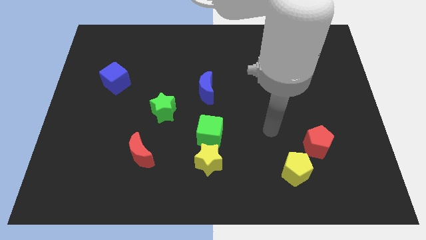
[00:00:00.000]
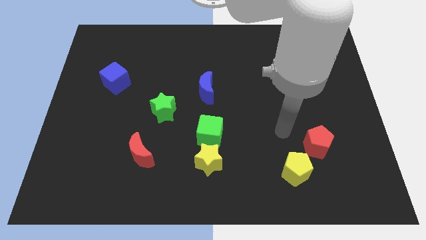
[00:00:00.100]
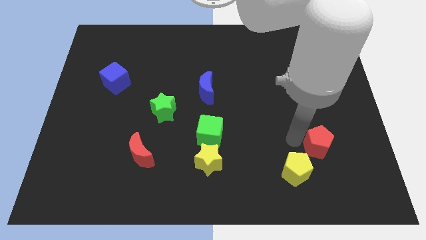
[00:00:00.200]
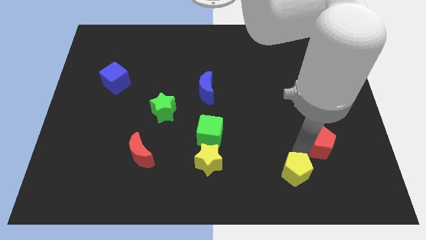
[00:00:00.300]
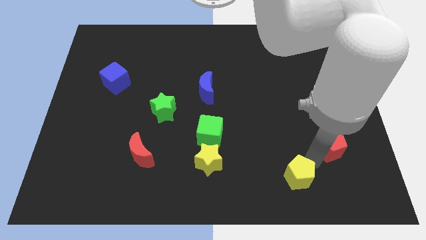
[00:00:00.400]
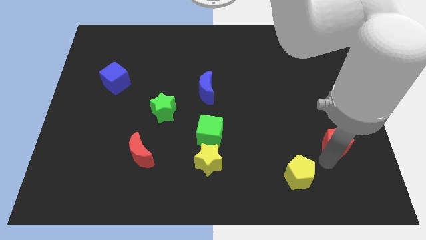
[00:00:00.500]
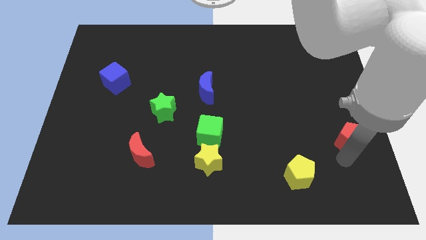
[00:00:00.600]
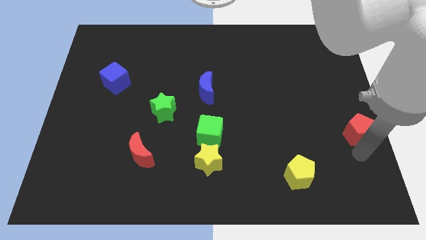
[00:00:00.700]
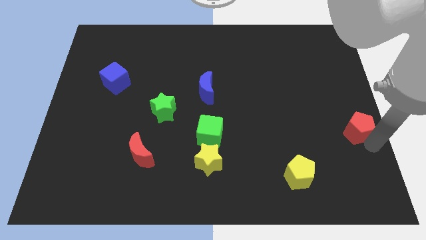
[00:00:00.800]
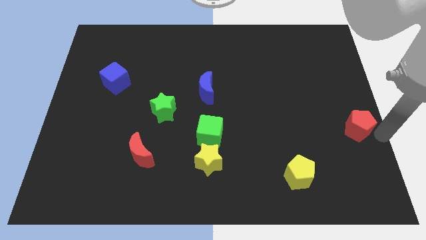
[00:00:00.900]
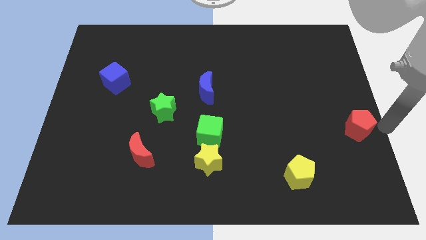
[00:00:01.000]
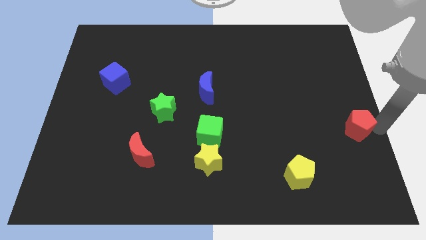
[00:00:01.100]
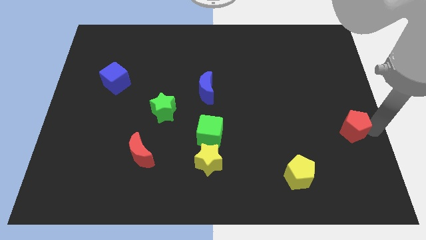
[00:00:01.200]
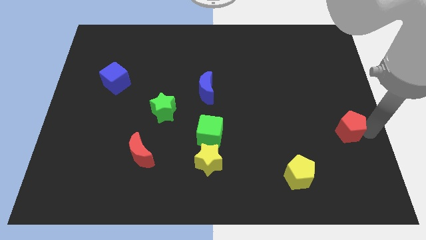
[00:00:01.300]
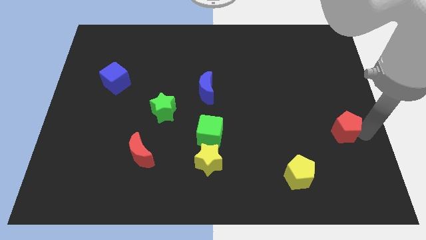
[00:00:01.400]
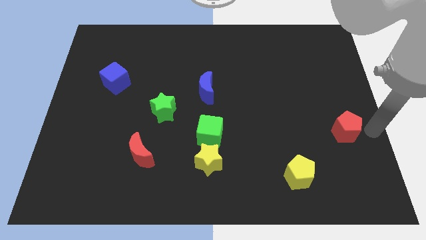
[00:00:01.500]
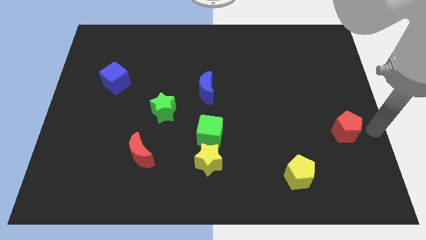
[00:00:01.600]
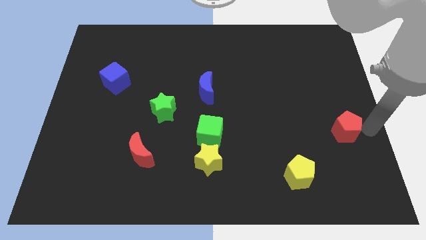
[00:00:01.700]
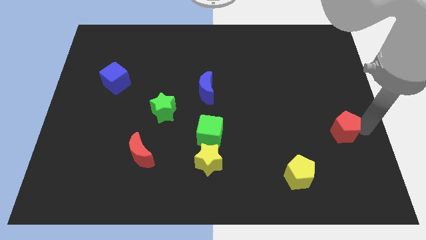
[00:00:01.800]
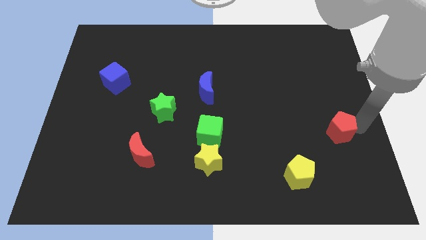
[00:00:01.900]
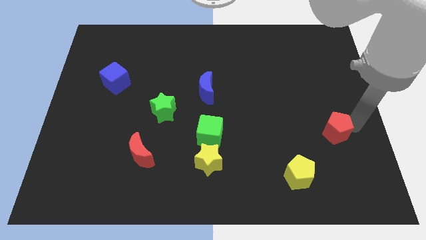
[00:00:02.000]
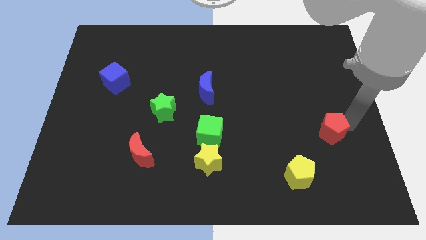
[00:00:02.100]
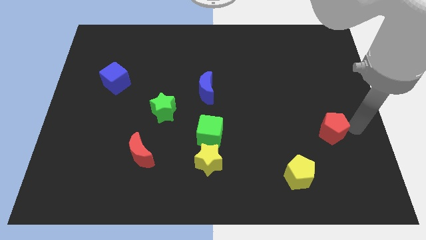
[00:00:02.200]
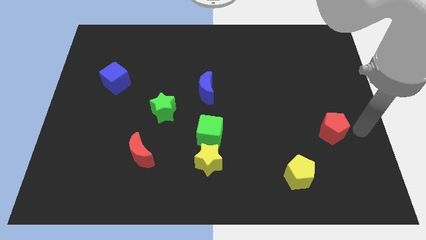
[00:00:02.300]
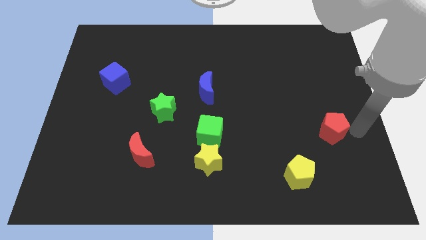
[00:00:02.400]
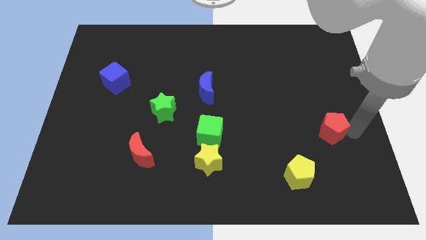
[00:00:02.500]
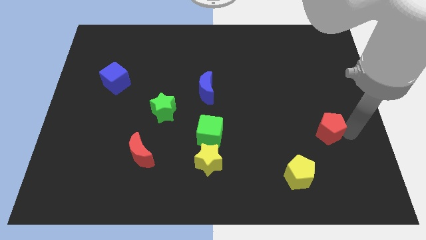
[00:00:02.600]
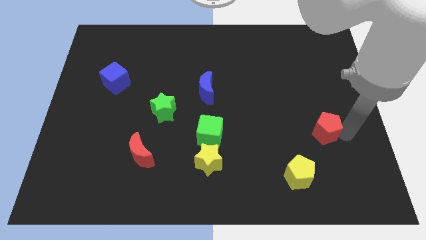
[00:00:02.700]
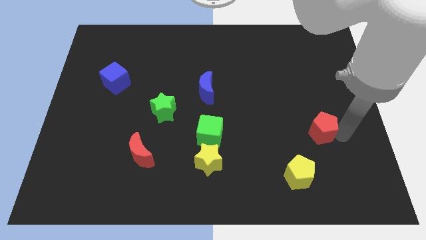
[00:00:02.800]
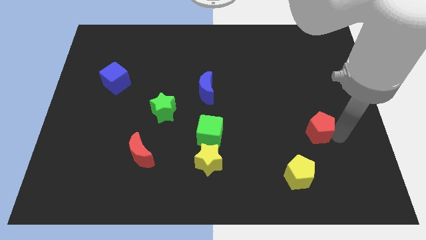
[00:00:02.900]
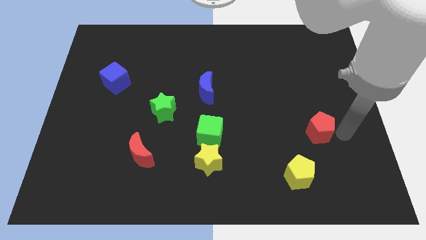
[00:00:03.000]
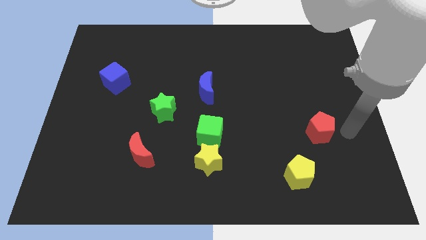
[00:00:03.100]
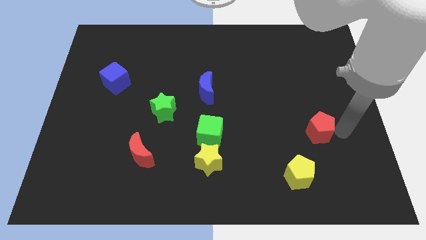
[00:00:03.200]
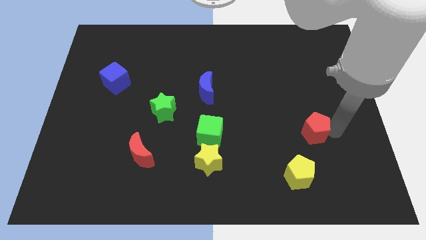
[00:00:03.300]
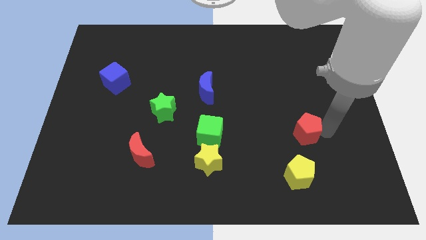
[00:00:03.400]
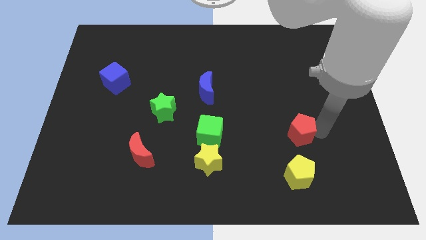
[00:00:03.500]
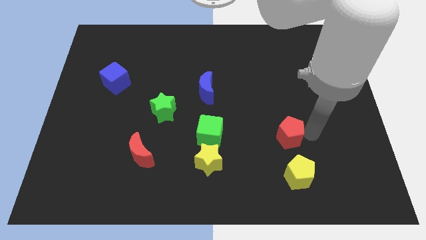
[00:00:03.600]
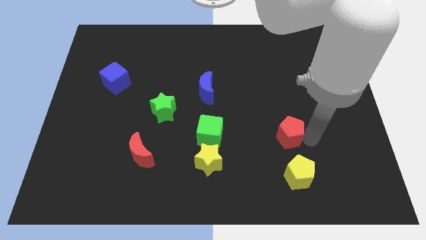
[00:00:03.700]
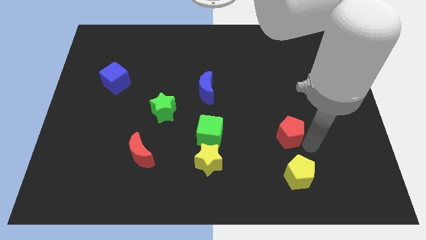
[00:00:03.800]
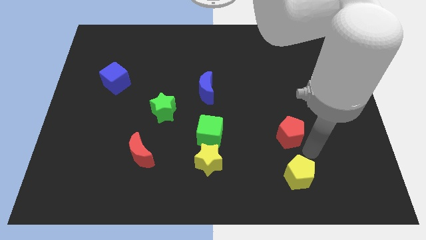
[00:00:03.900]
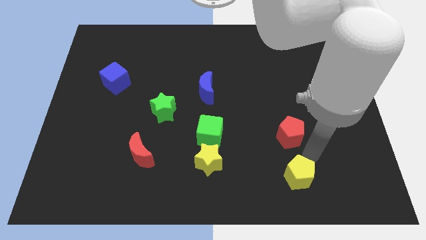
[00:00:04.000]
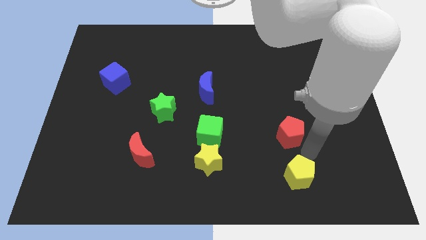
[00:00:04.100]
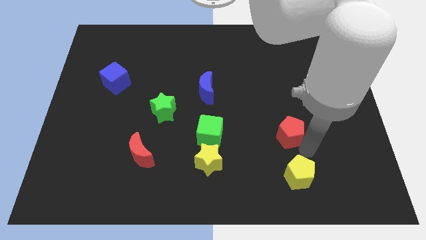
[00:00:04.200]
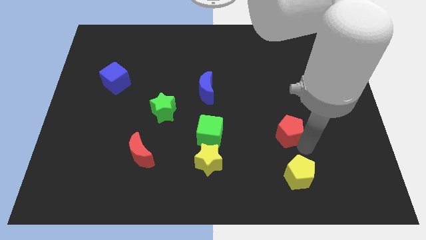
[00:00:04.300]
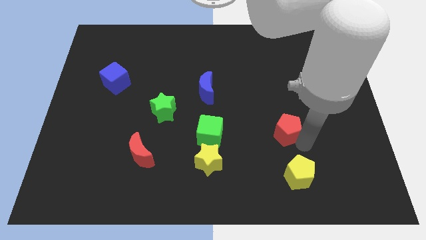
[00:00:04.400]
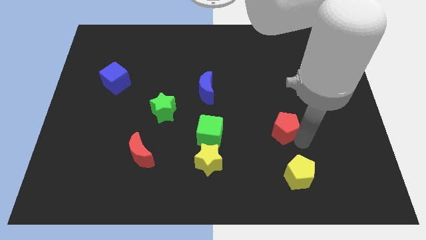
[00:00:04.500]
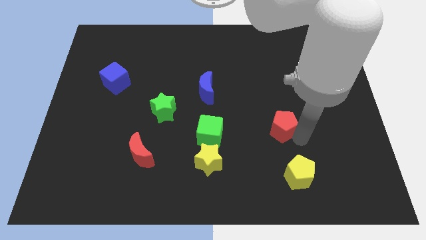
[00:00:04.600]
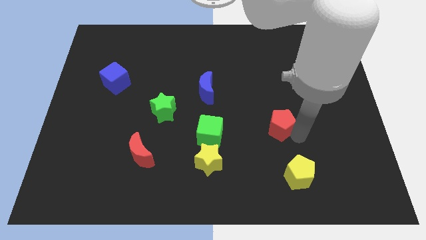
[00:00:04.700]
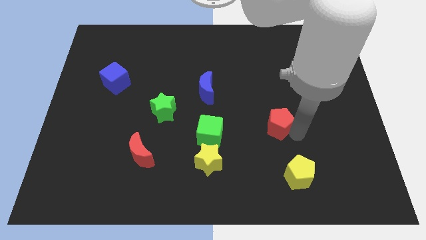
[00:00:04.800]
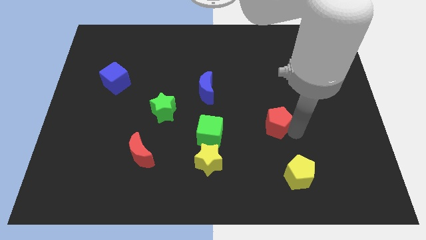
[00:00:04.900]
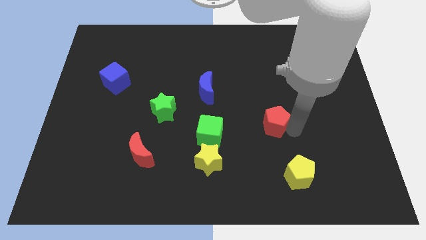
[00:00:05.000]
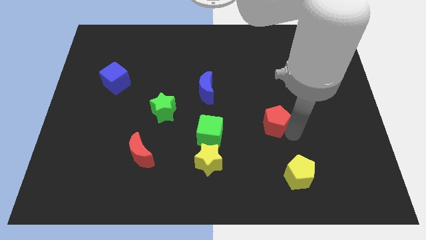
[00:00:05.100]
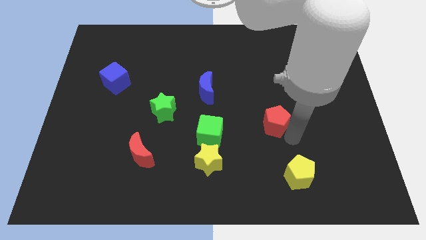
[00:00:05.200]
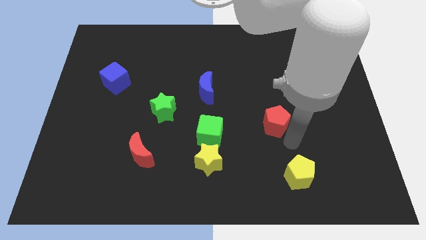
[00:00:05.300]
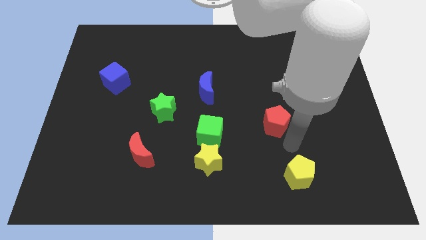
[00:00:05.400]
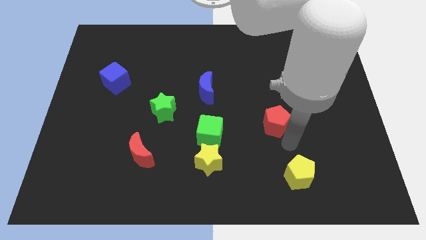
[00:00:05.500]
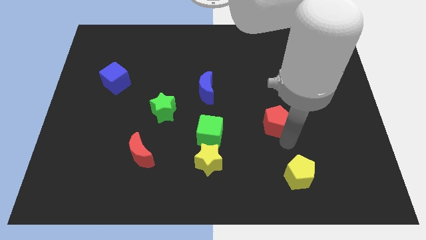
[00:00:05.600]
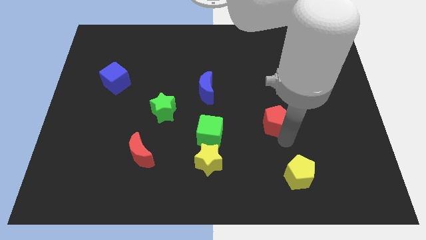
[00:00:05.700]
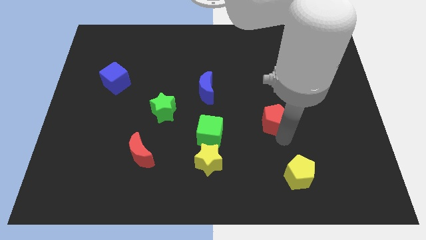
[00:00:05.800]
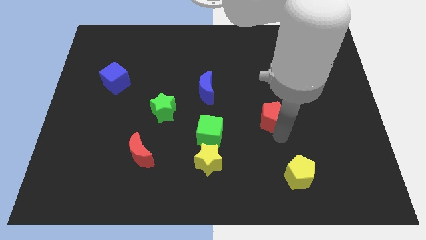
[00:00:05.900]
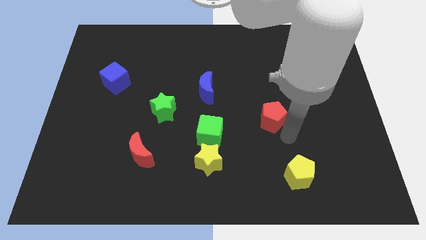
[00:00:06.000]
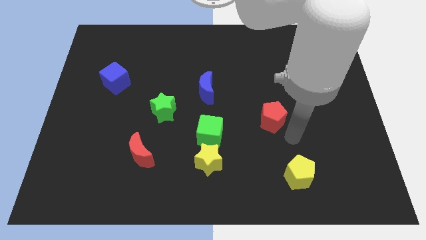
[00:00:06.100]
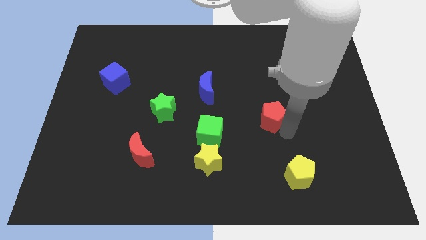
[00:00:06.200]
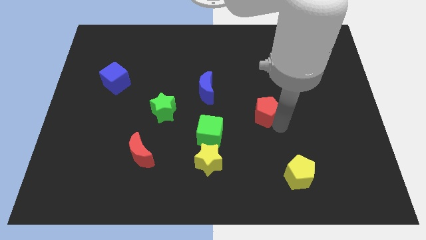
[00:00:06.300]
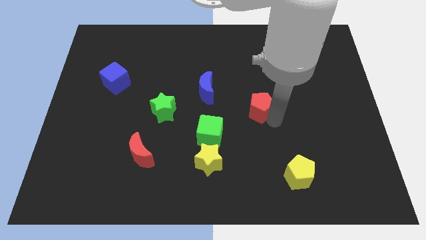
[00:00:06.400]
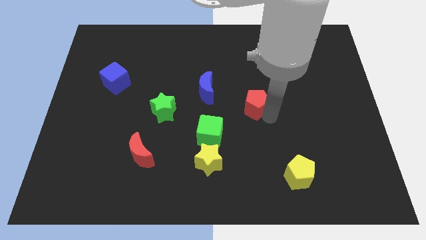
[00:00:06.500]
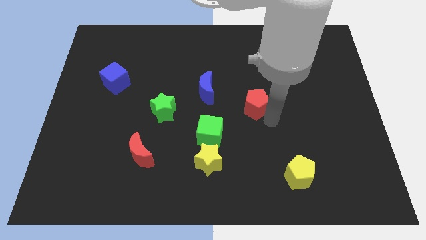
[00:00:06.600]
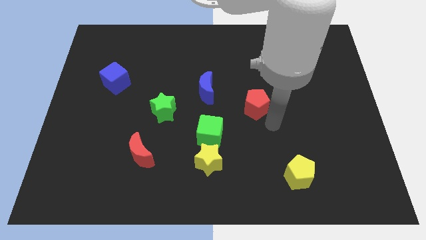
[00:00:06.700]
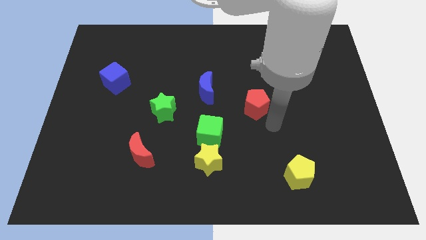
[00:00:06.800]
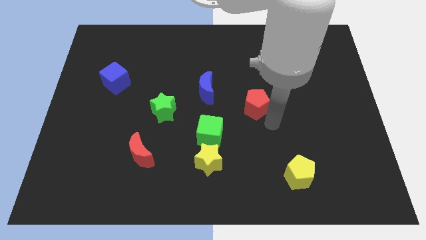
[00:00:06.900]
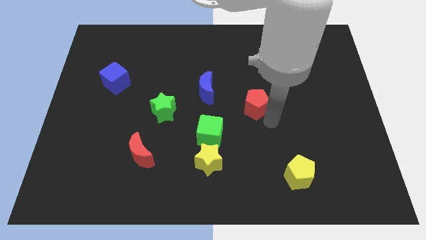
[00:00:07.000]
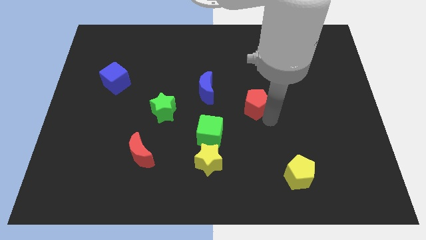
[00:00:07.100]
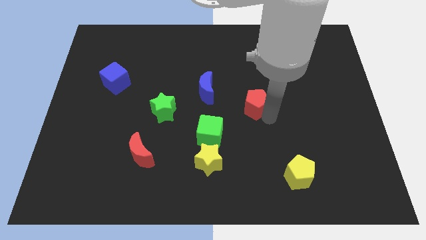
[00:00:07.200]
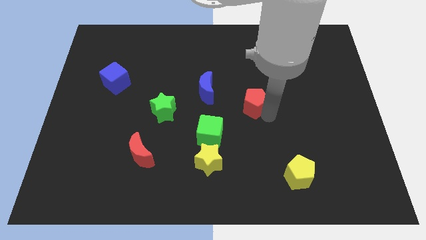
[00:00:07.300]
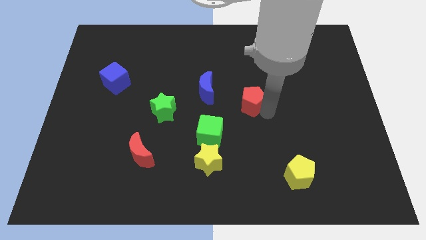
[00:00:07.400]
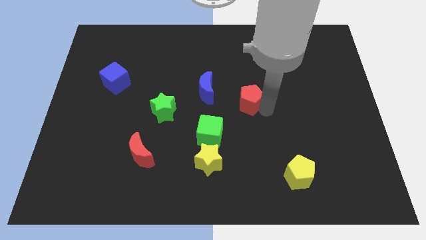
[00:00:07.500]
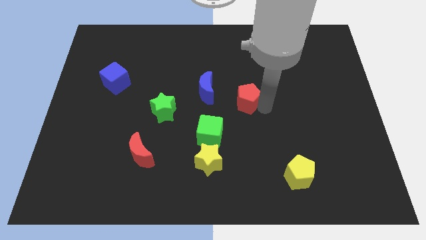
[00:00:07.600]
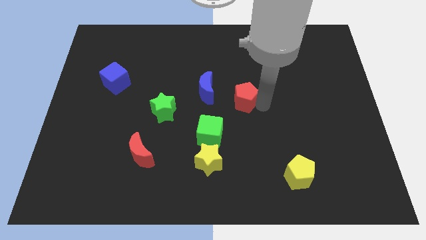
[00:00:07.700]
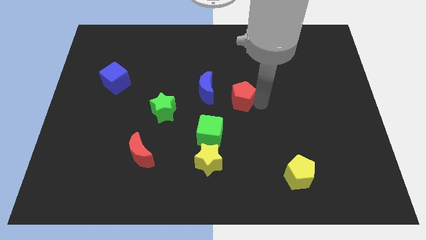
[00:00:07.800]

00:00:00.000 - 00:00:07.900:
move the red pentagon up and then to the left

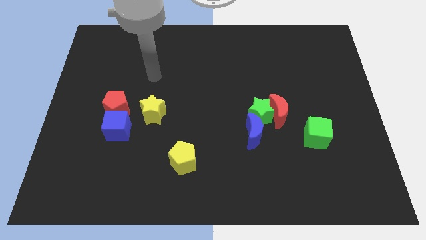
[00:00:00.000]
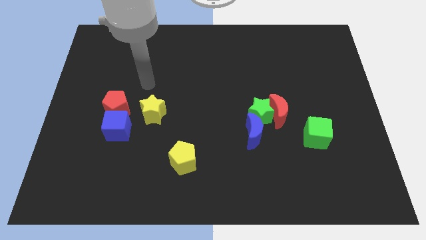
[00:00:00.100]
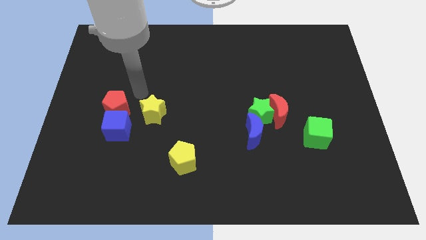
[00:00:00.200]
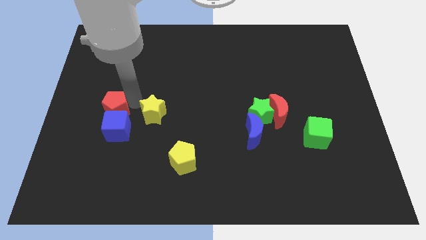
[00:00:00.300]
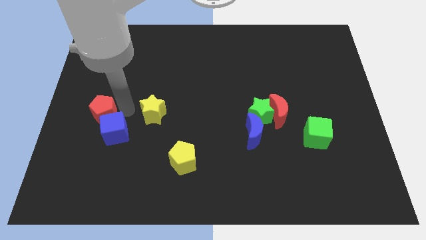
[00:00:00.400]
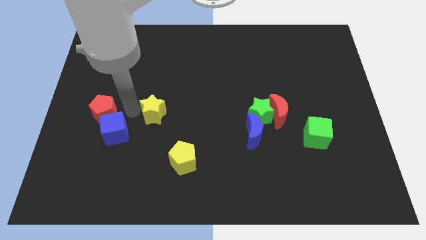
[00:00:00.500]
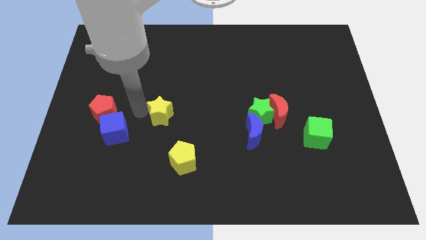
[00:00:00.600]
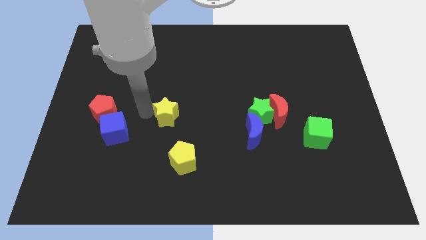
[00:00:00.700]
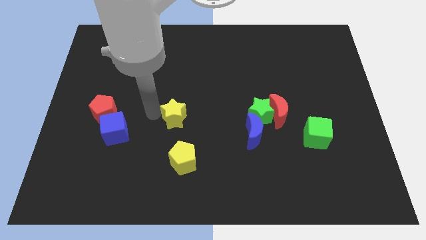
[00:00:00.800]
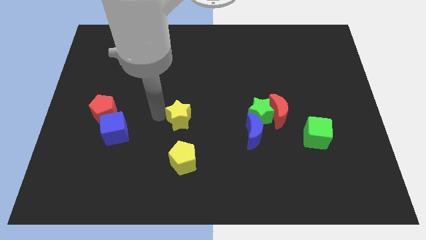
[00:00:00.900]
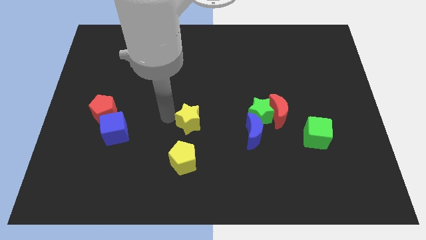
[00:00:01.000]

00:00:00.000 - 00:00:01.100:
slide the yellow star a bit to the right
